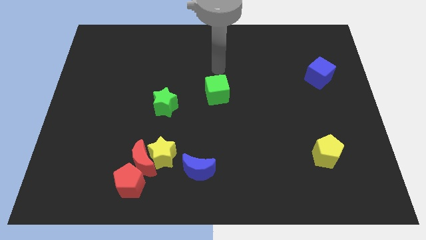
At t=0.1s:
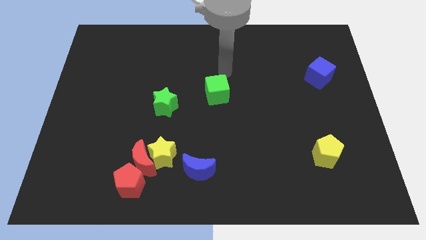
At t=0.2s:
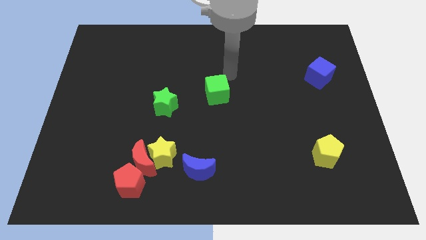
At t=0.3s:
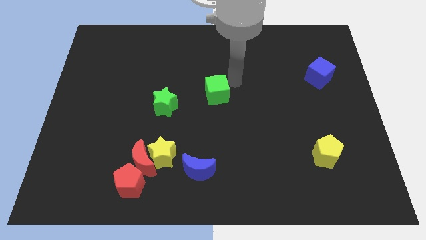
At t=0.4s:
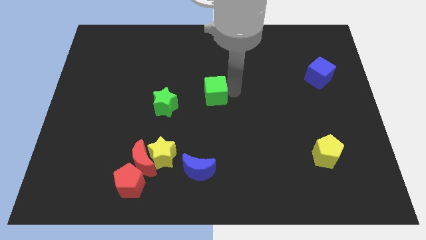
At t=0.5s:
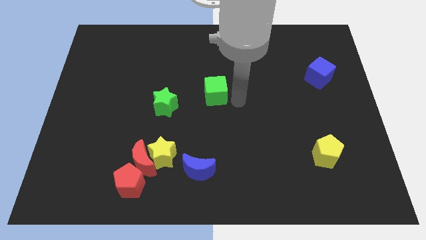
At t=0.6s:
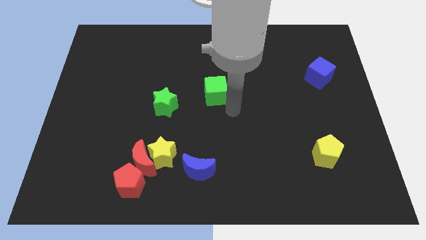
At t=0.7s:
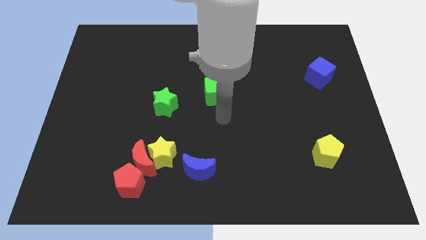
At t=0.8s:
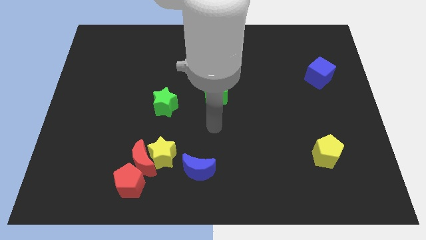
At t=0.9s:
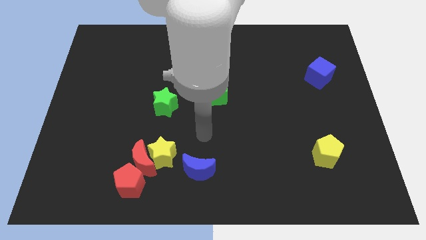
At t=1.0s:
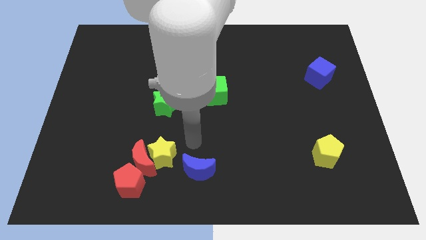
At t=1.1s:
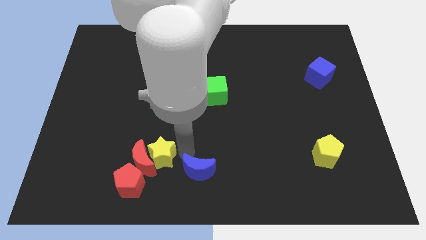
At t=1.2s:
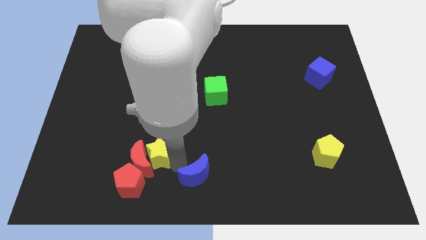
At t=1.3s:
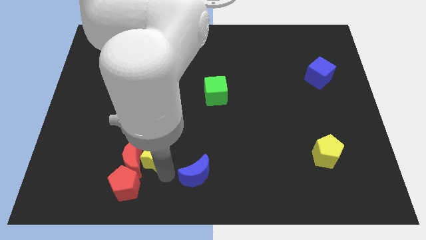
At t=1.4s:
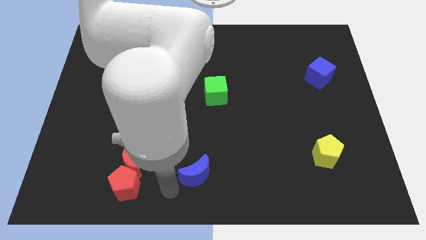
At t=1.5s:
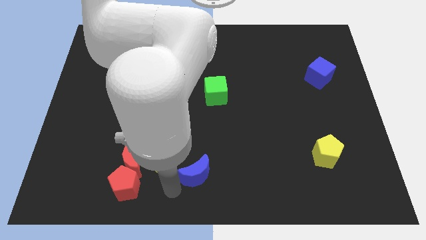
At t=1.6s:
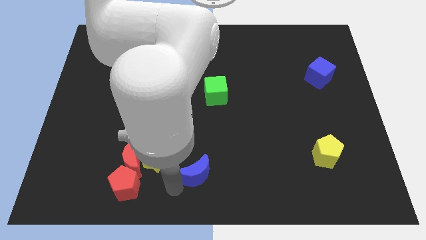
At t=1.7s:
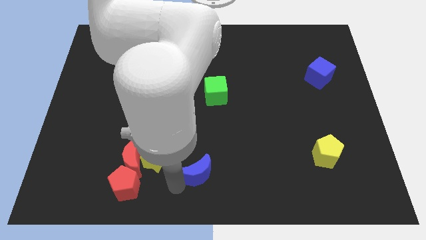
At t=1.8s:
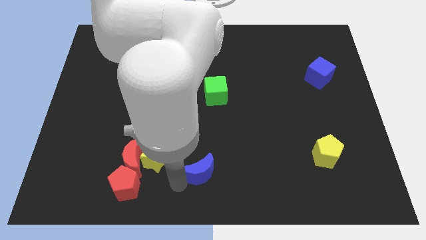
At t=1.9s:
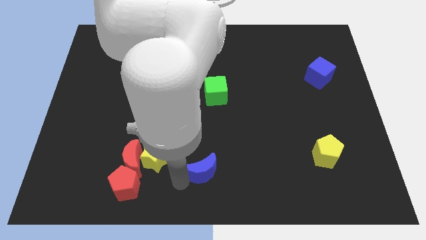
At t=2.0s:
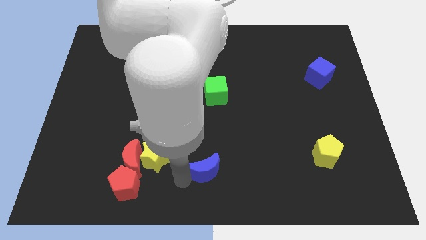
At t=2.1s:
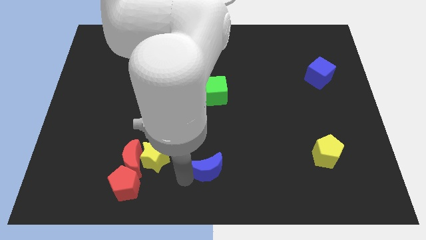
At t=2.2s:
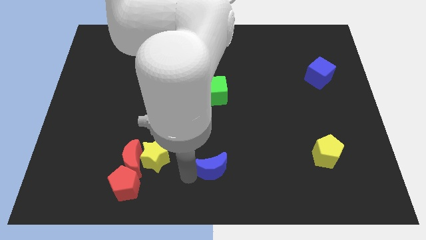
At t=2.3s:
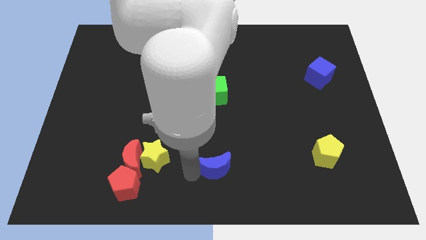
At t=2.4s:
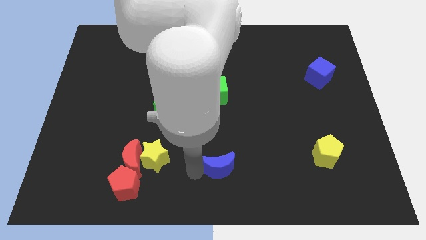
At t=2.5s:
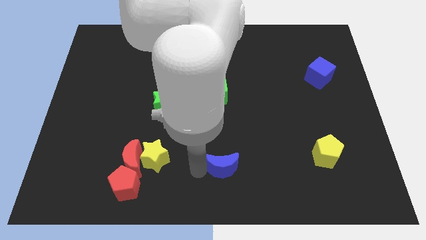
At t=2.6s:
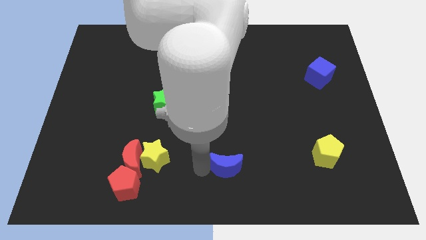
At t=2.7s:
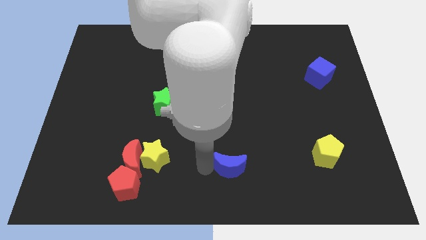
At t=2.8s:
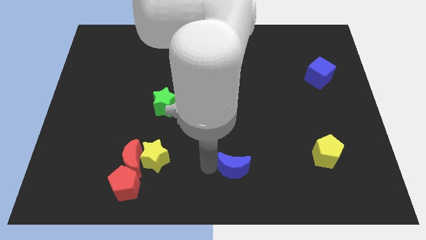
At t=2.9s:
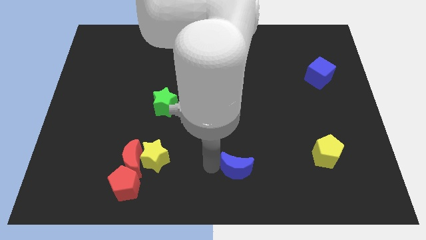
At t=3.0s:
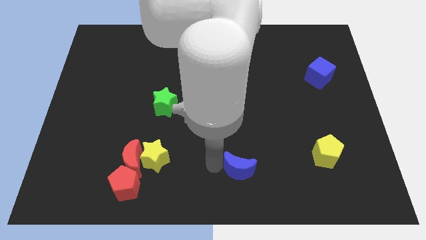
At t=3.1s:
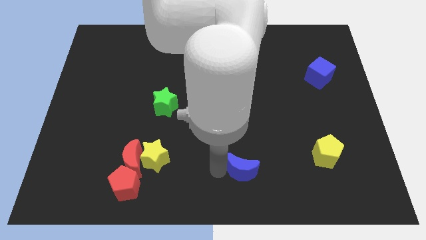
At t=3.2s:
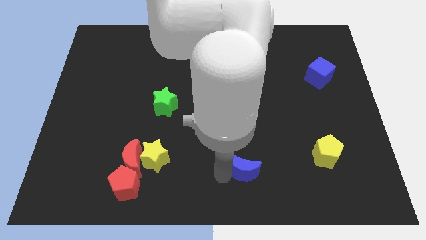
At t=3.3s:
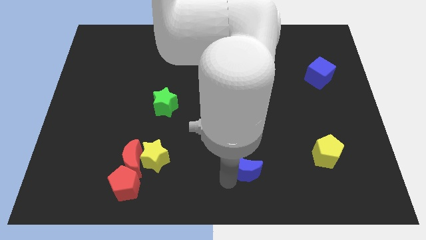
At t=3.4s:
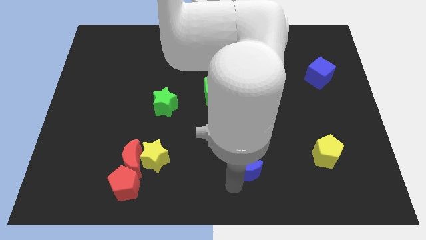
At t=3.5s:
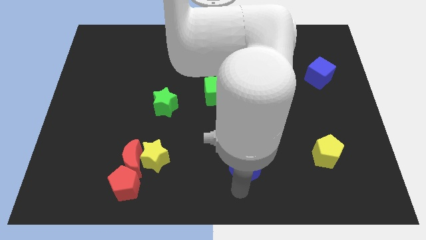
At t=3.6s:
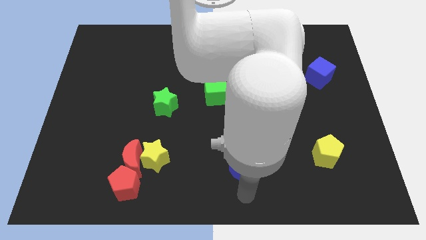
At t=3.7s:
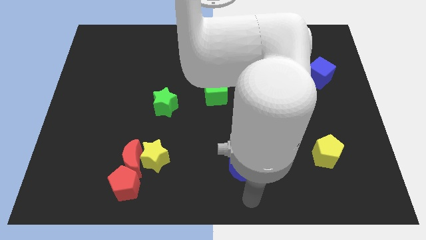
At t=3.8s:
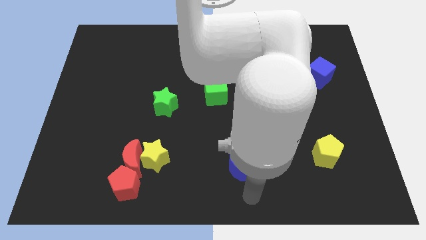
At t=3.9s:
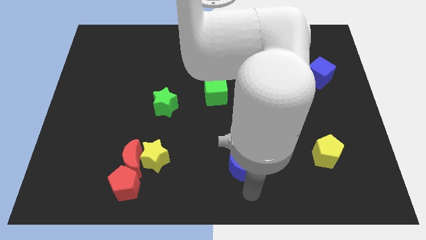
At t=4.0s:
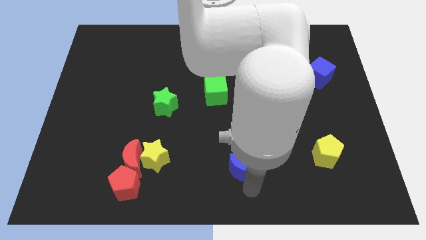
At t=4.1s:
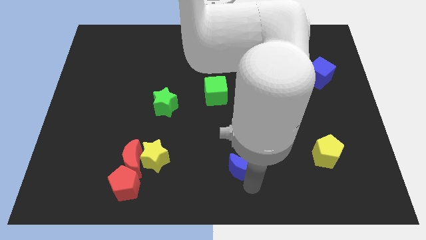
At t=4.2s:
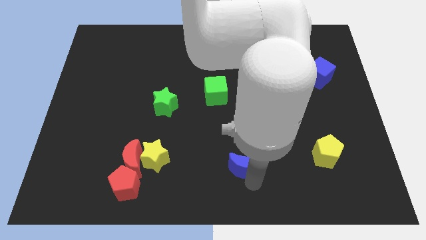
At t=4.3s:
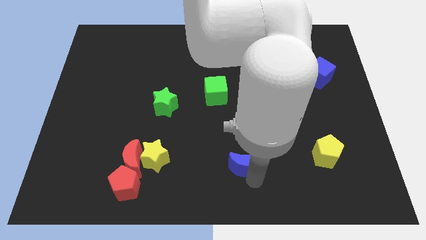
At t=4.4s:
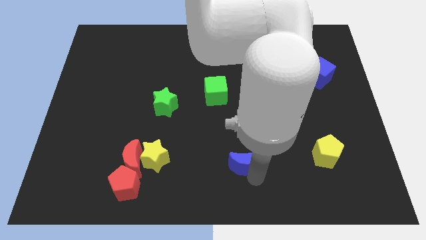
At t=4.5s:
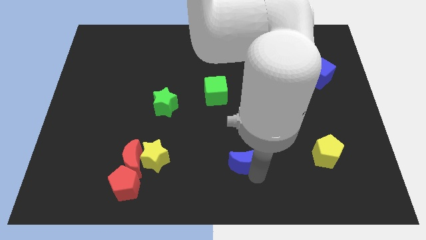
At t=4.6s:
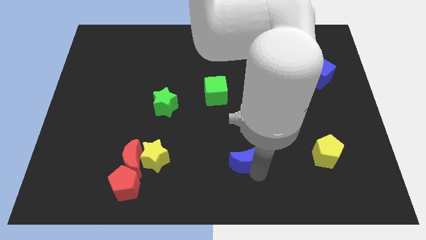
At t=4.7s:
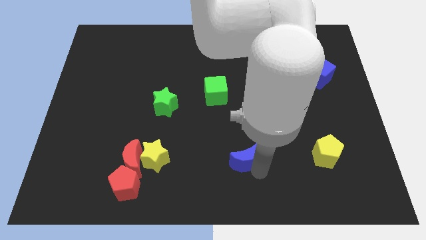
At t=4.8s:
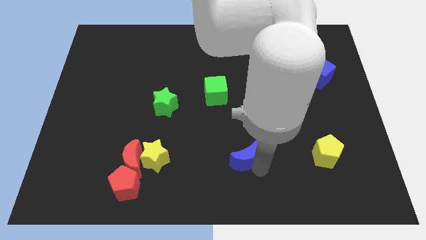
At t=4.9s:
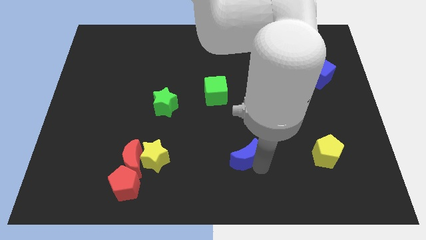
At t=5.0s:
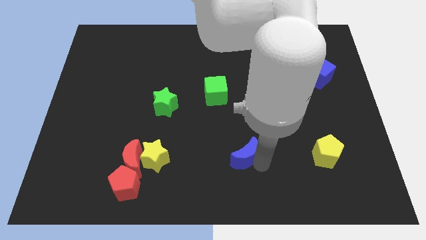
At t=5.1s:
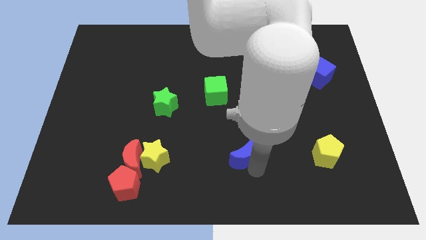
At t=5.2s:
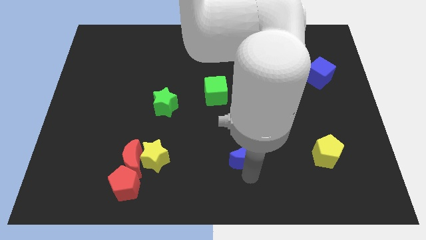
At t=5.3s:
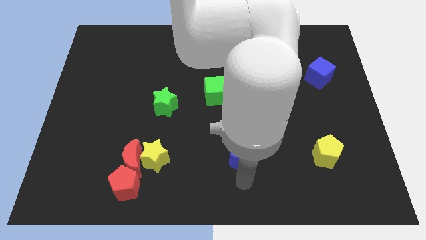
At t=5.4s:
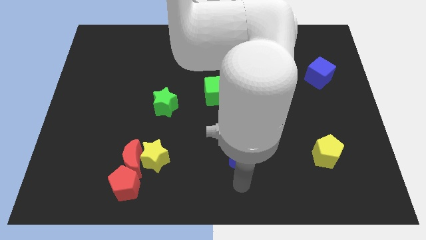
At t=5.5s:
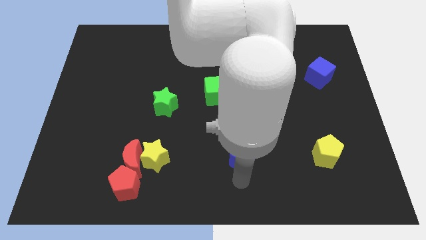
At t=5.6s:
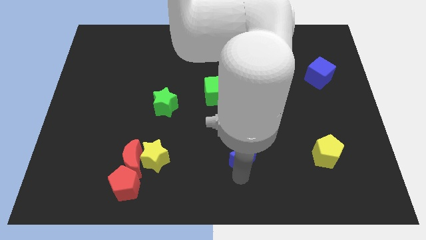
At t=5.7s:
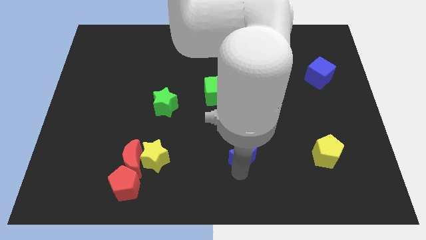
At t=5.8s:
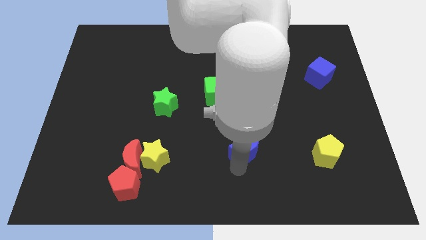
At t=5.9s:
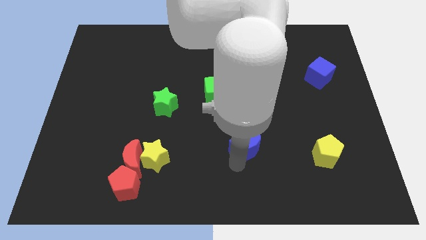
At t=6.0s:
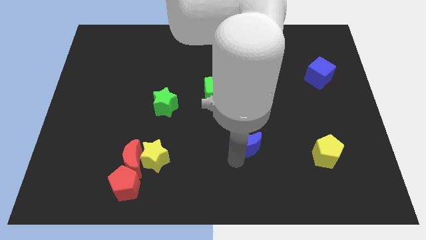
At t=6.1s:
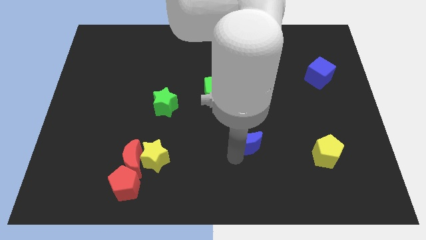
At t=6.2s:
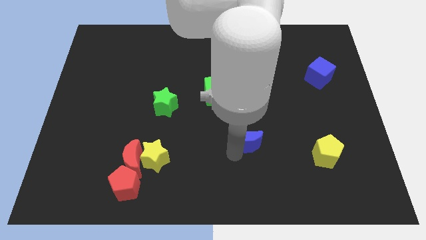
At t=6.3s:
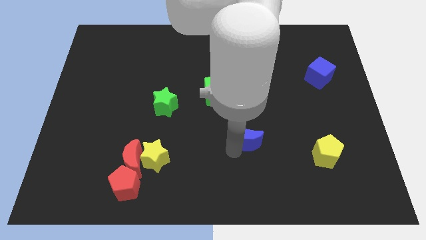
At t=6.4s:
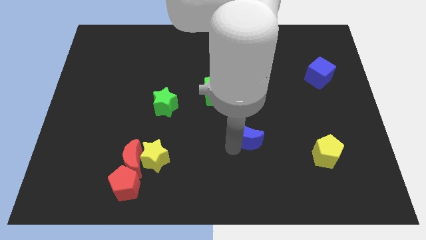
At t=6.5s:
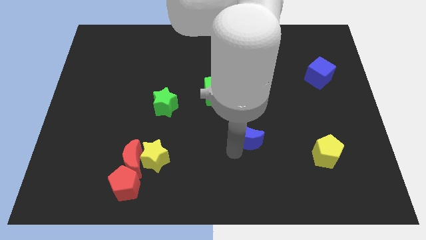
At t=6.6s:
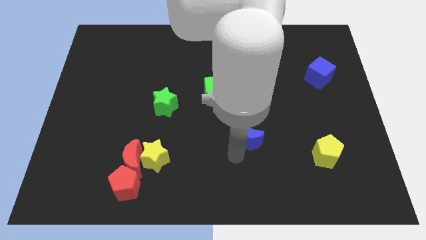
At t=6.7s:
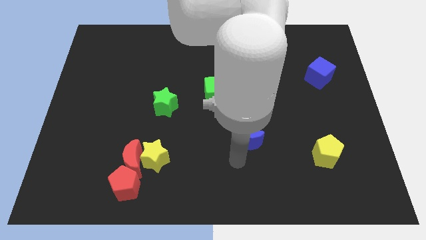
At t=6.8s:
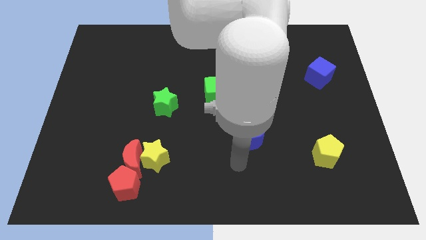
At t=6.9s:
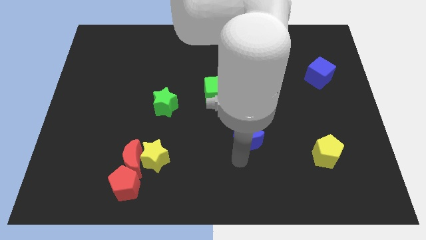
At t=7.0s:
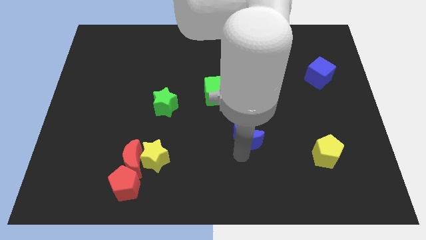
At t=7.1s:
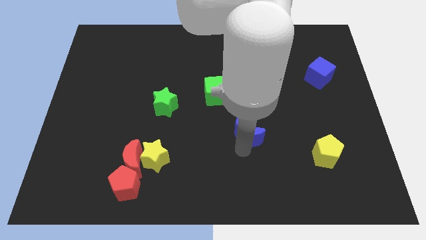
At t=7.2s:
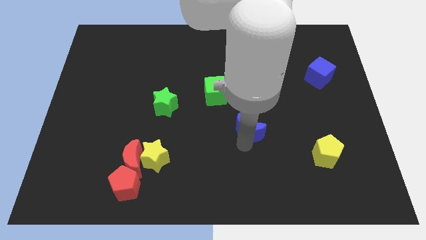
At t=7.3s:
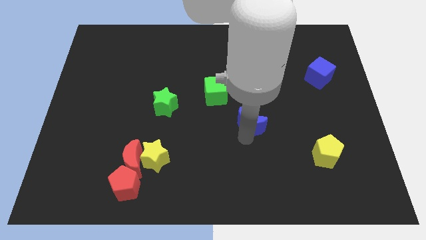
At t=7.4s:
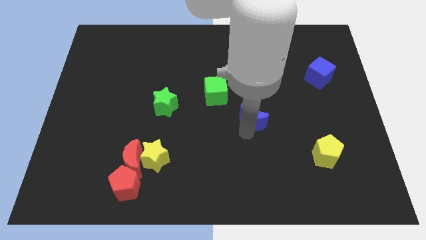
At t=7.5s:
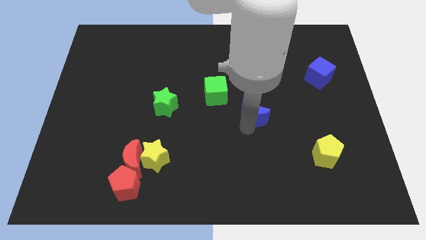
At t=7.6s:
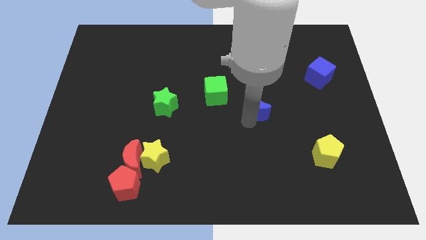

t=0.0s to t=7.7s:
push the blue moon up and to the right diagonally

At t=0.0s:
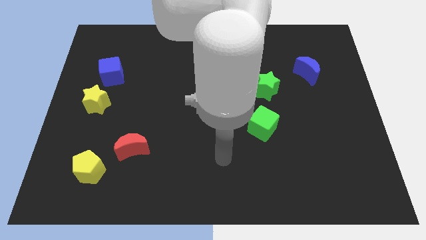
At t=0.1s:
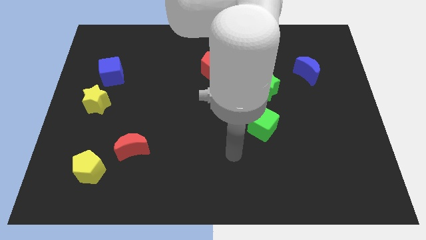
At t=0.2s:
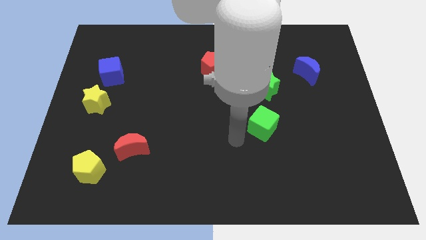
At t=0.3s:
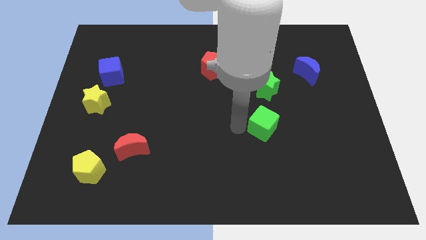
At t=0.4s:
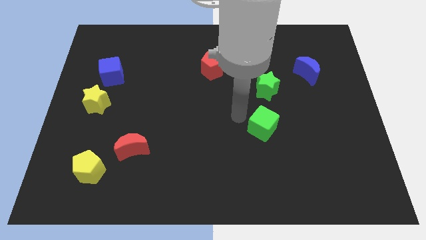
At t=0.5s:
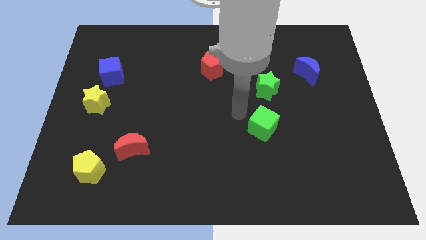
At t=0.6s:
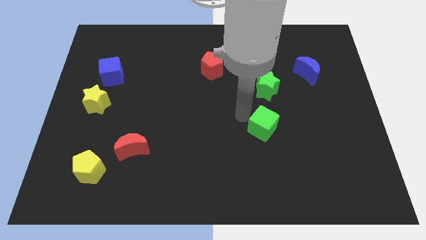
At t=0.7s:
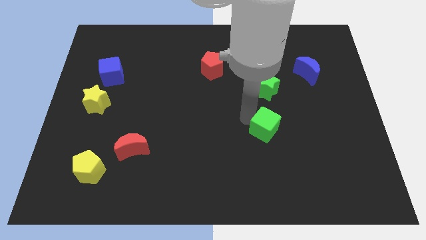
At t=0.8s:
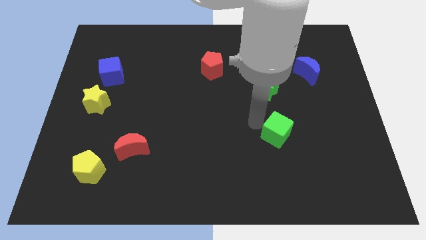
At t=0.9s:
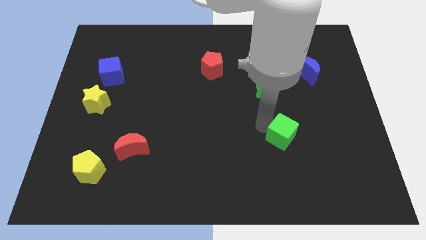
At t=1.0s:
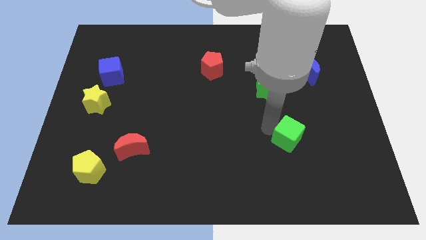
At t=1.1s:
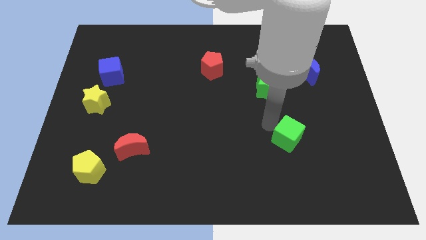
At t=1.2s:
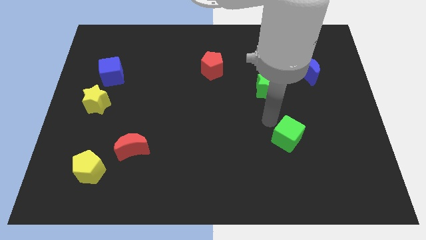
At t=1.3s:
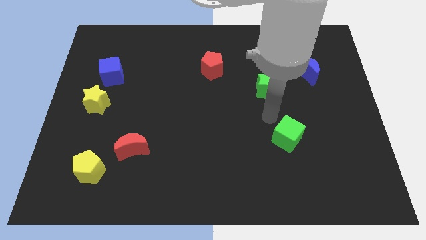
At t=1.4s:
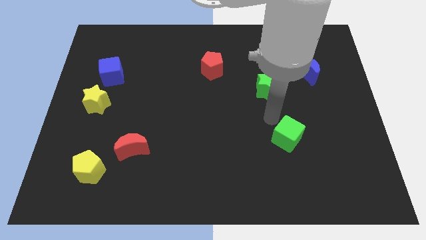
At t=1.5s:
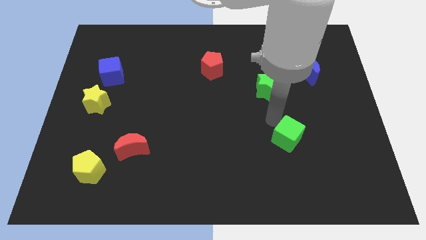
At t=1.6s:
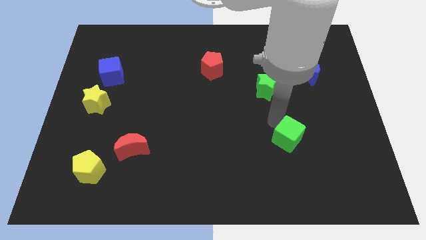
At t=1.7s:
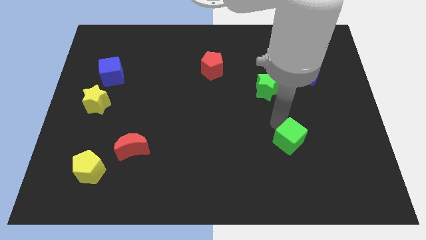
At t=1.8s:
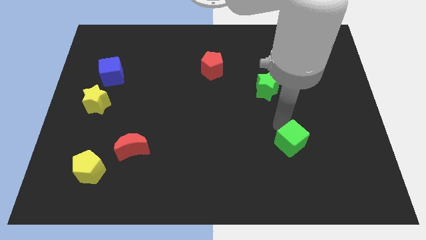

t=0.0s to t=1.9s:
slightly move the green cube downwards and right
